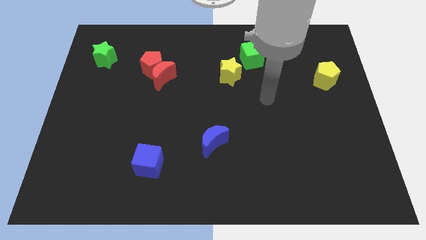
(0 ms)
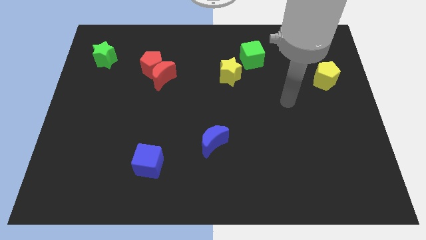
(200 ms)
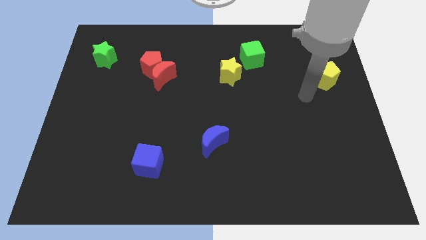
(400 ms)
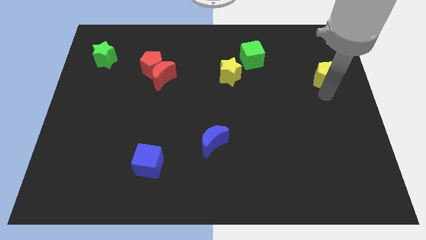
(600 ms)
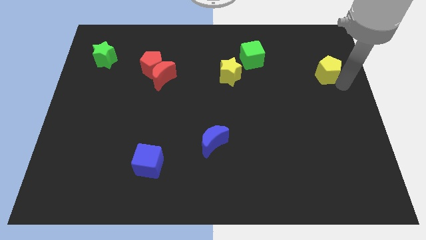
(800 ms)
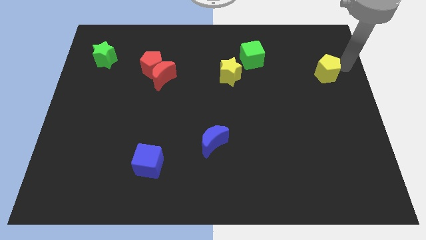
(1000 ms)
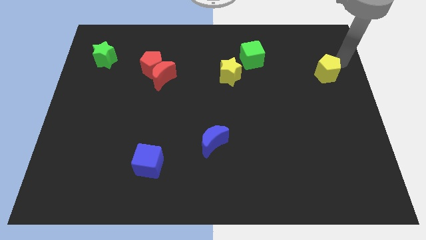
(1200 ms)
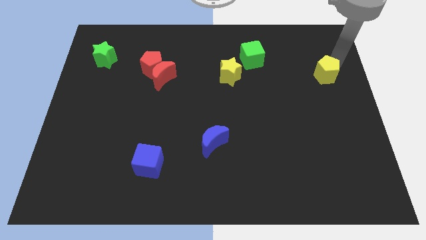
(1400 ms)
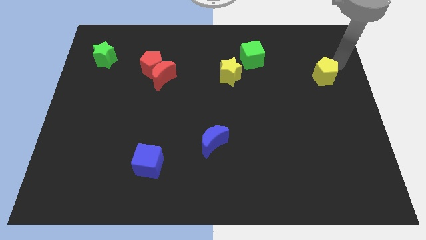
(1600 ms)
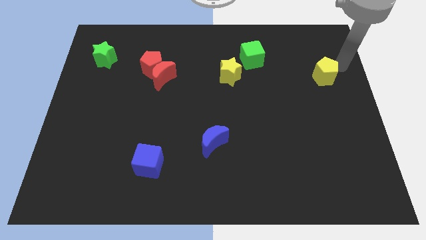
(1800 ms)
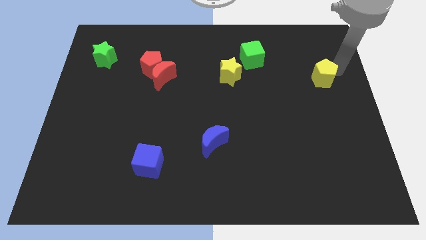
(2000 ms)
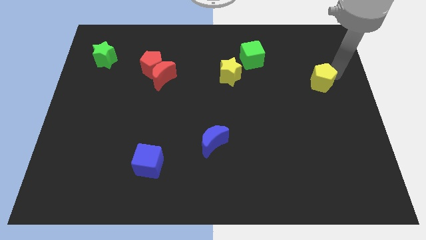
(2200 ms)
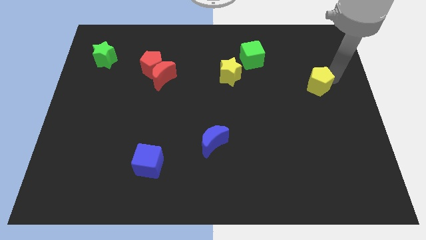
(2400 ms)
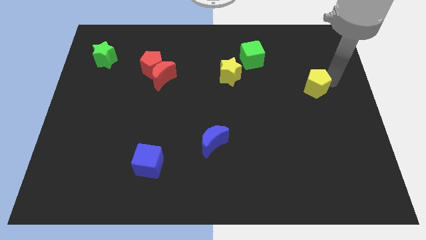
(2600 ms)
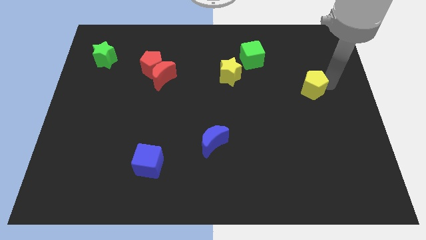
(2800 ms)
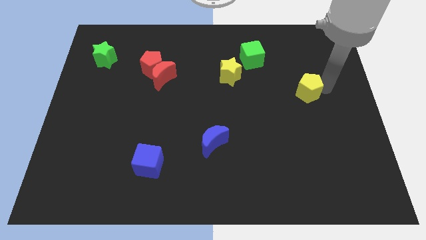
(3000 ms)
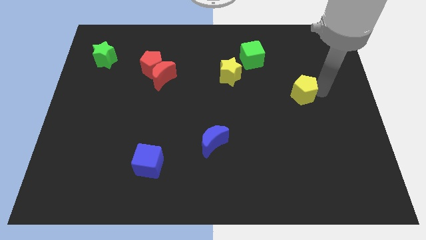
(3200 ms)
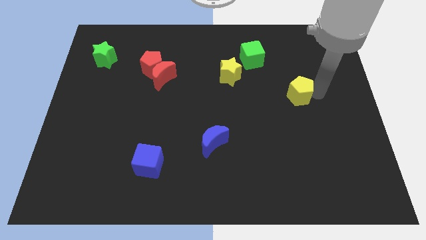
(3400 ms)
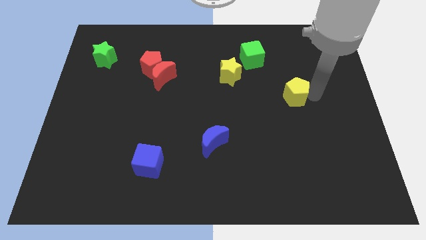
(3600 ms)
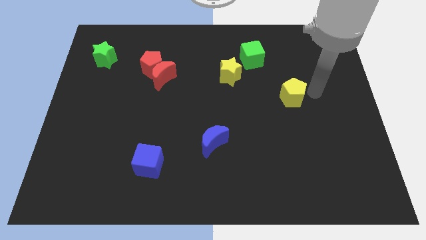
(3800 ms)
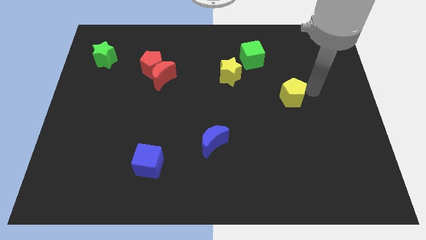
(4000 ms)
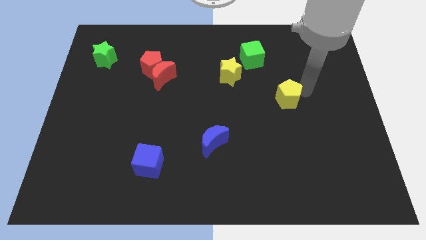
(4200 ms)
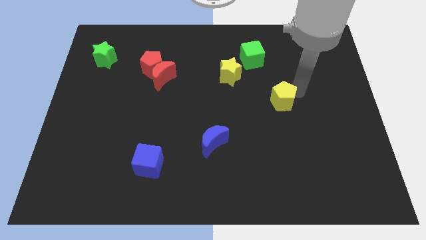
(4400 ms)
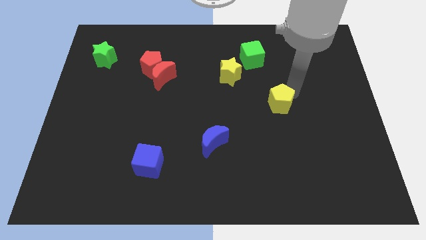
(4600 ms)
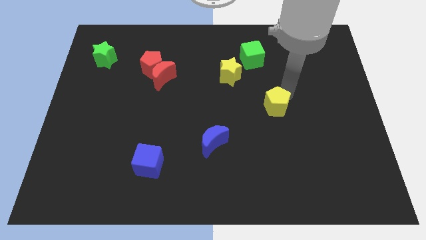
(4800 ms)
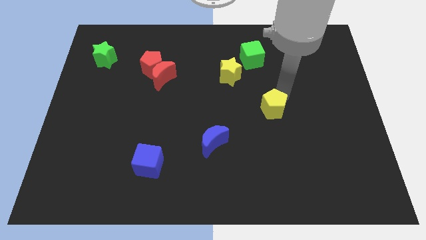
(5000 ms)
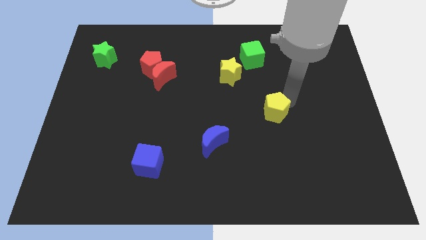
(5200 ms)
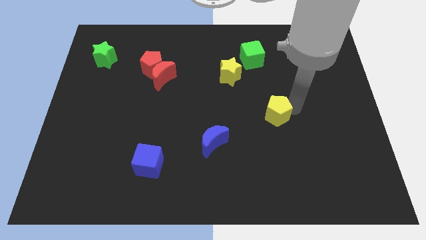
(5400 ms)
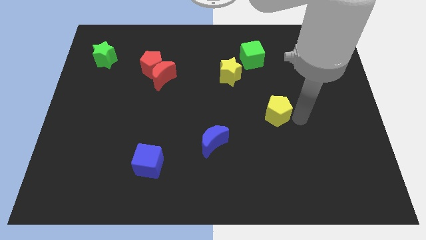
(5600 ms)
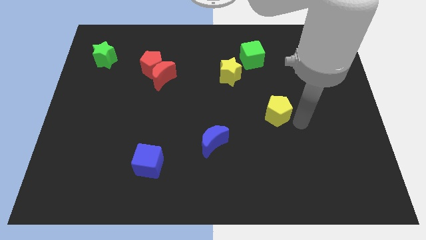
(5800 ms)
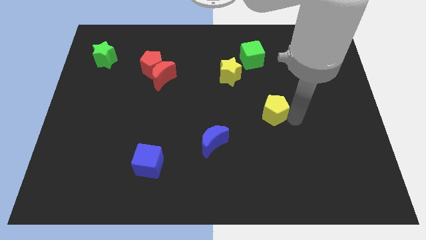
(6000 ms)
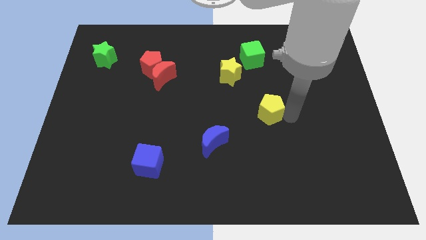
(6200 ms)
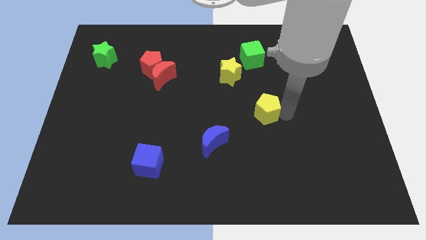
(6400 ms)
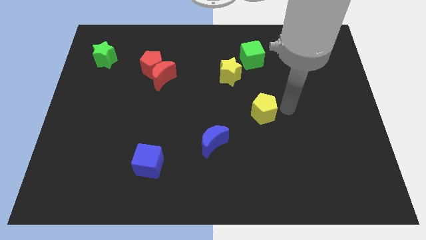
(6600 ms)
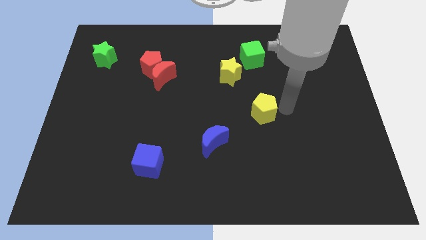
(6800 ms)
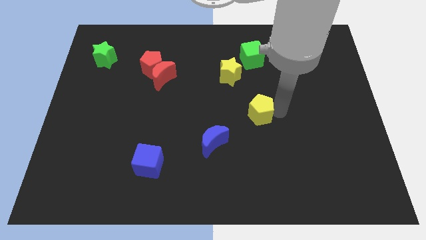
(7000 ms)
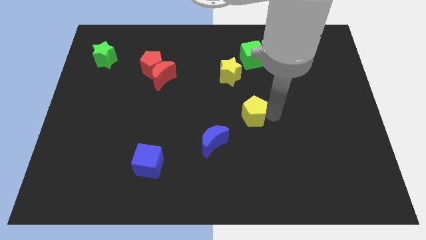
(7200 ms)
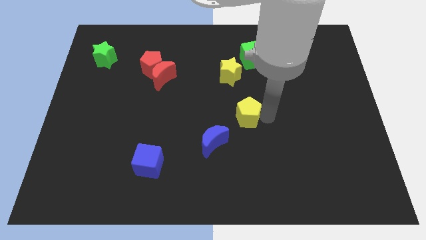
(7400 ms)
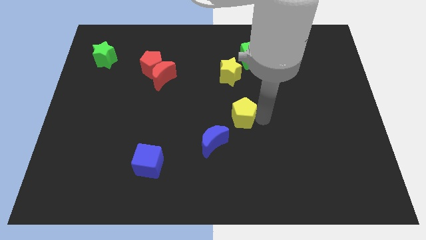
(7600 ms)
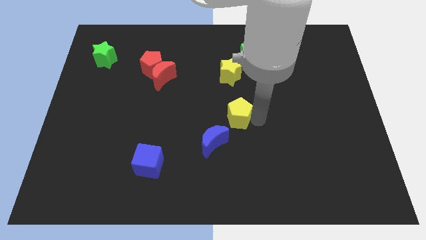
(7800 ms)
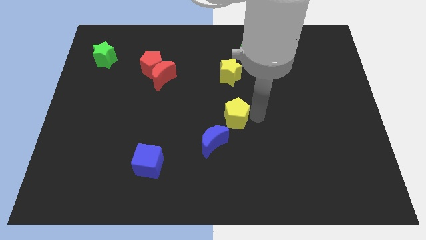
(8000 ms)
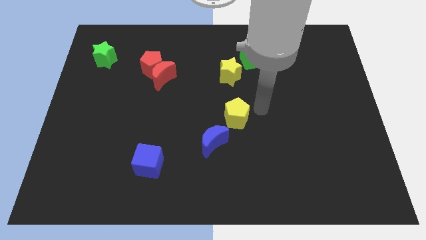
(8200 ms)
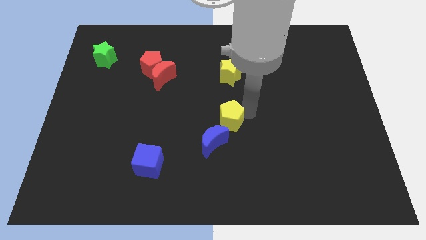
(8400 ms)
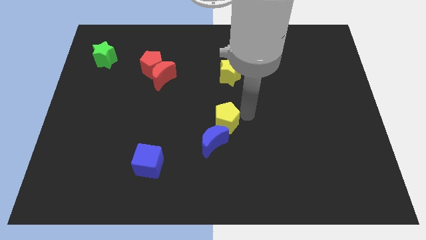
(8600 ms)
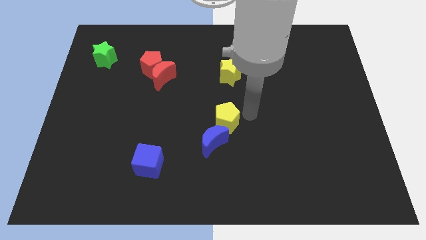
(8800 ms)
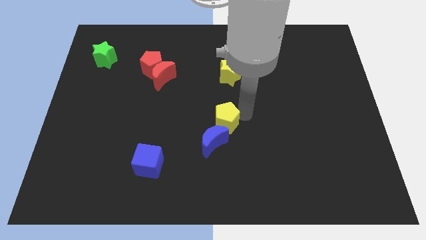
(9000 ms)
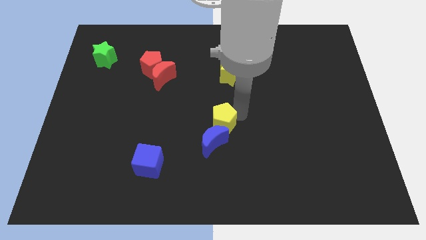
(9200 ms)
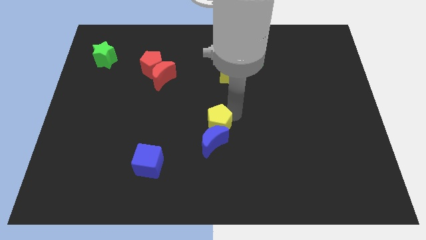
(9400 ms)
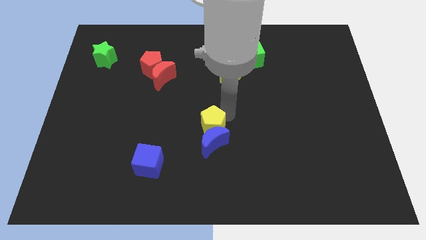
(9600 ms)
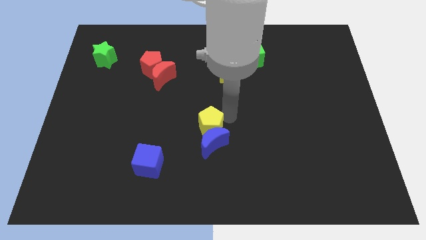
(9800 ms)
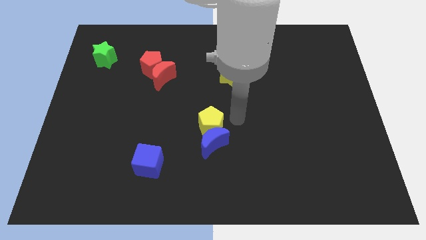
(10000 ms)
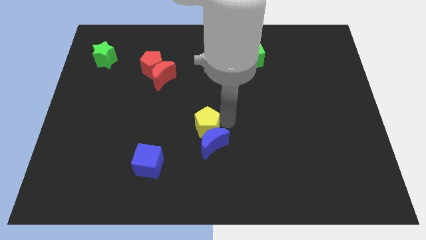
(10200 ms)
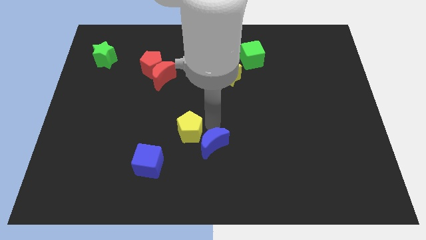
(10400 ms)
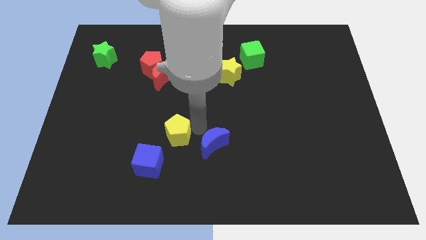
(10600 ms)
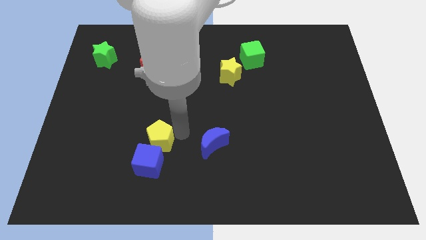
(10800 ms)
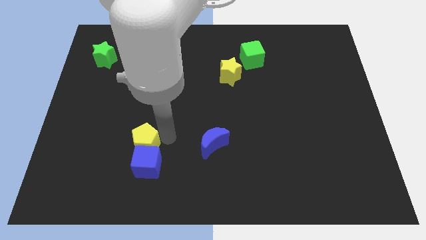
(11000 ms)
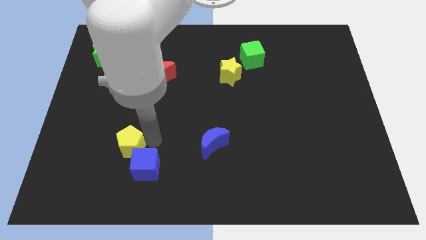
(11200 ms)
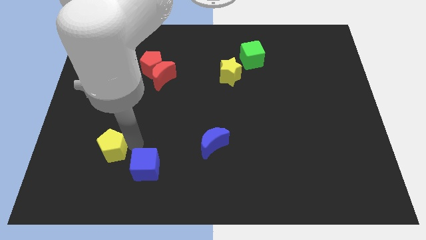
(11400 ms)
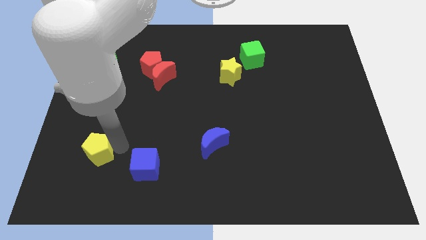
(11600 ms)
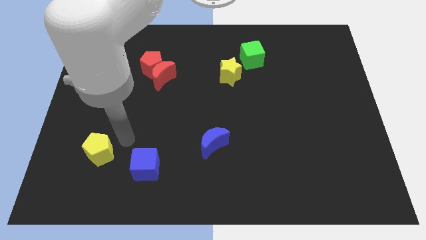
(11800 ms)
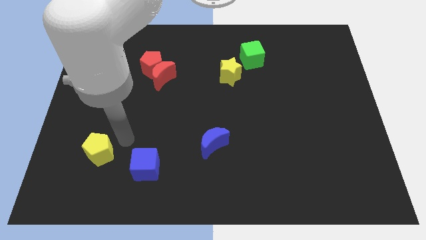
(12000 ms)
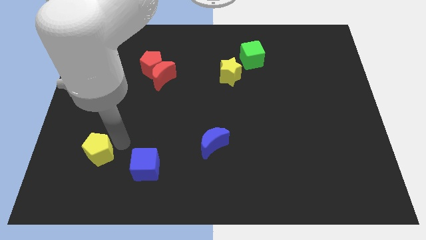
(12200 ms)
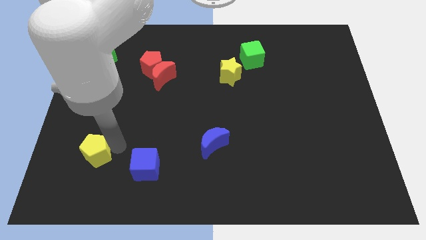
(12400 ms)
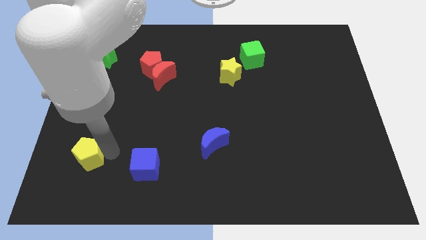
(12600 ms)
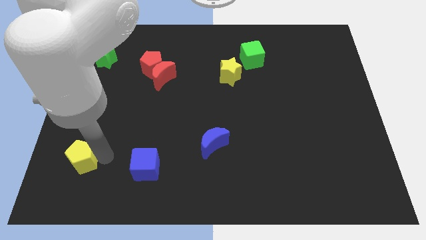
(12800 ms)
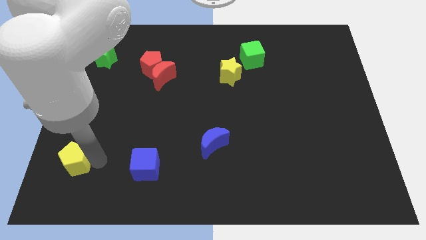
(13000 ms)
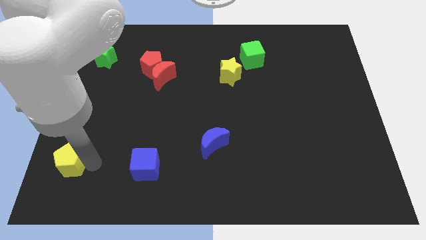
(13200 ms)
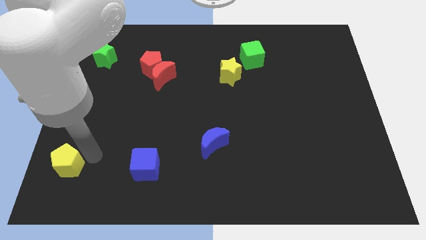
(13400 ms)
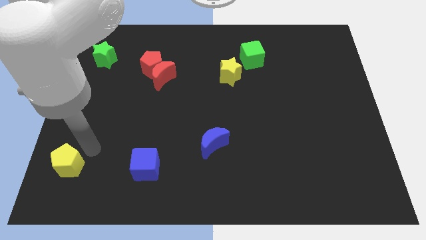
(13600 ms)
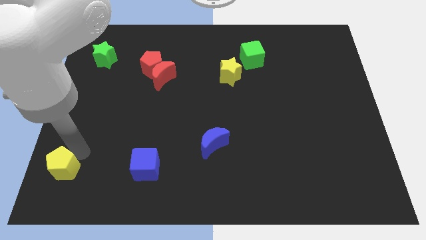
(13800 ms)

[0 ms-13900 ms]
push the yellow pentagon to the bottom left corner
